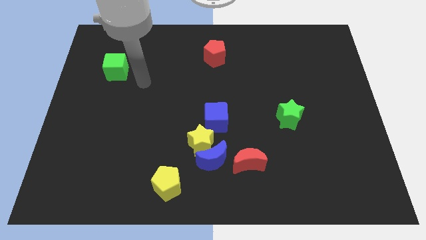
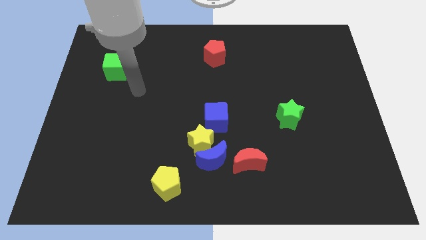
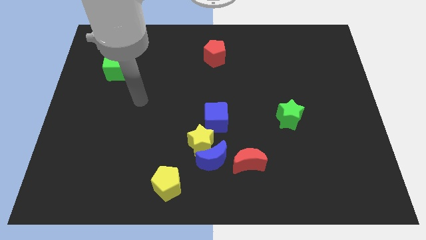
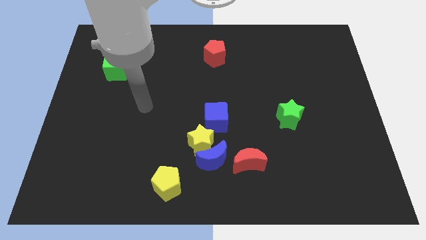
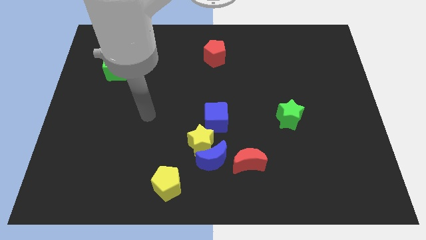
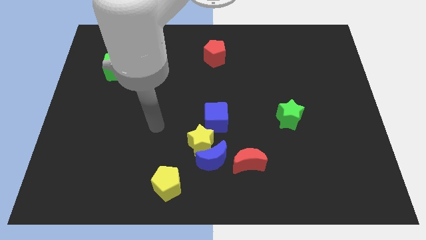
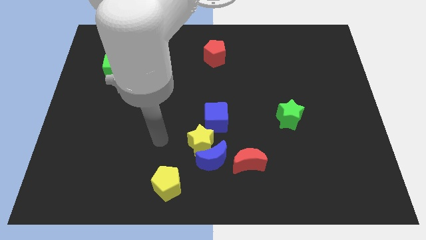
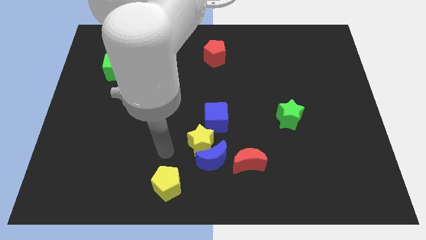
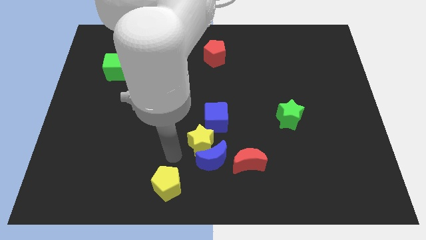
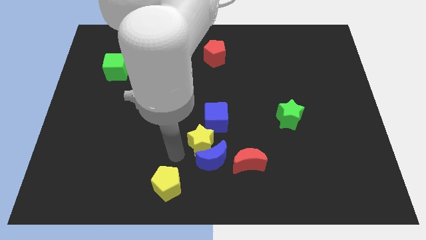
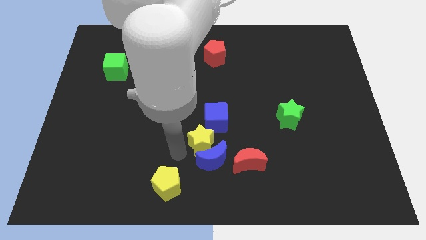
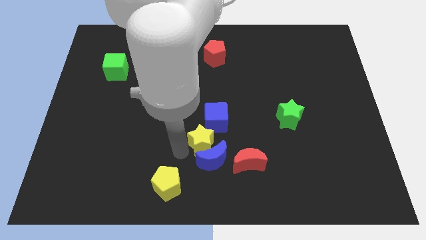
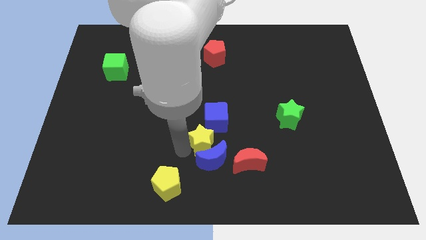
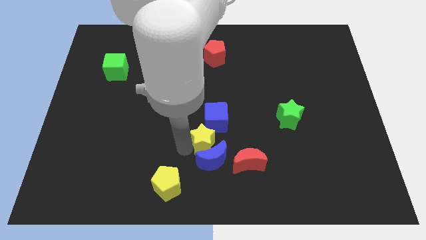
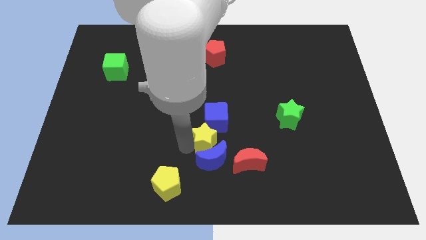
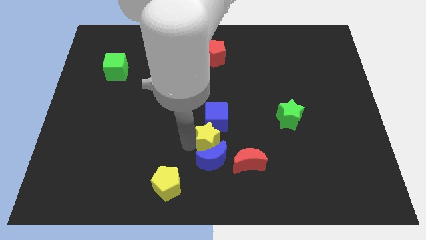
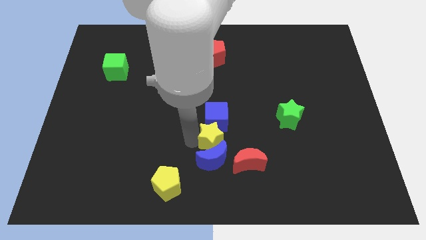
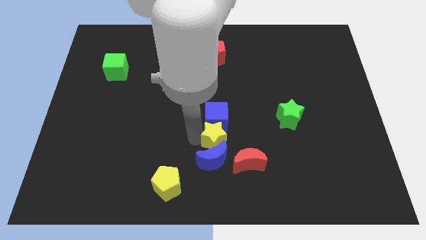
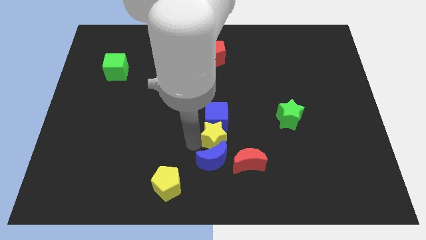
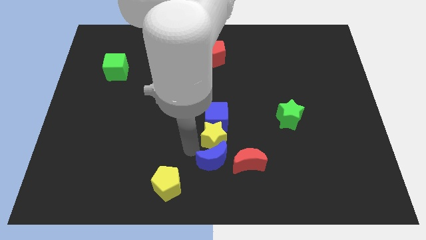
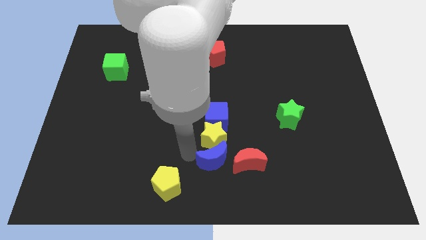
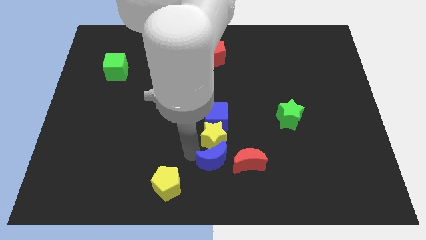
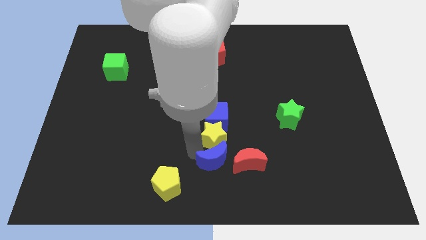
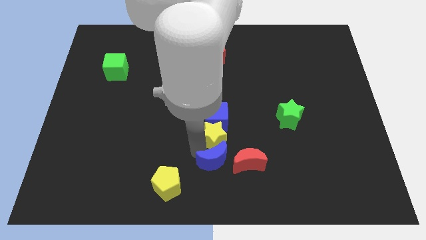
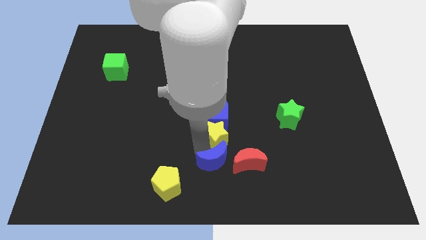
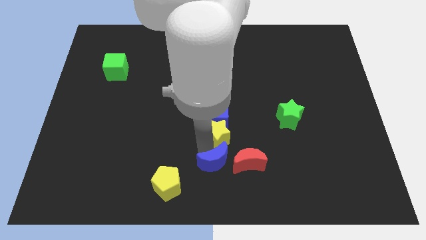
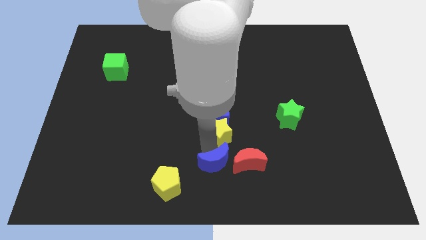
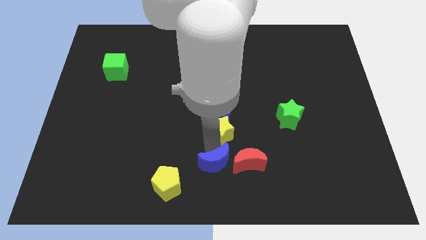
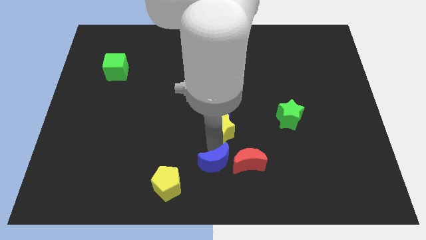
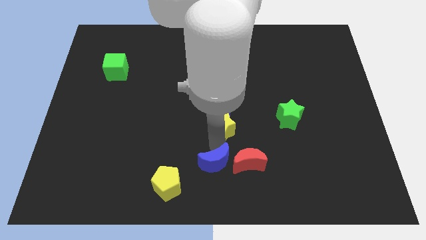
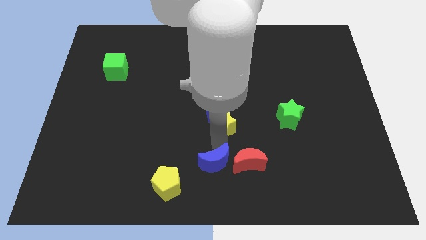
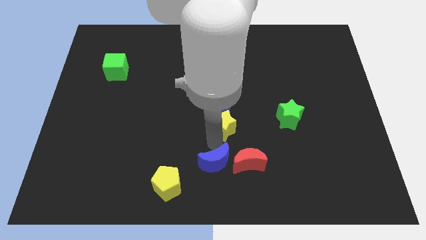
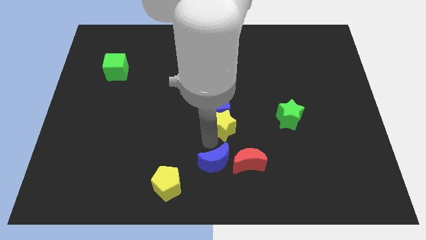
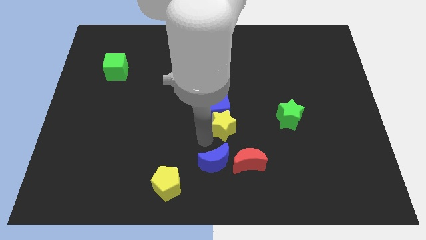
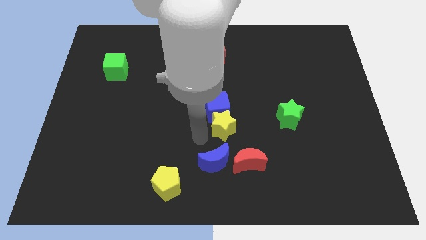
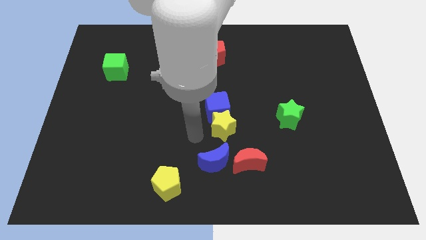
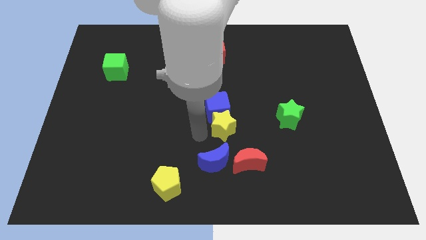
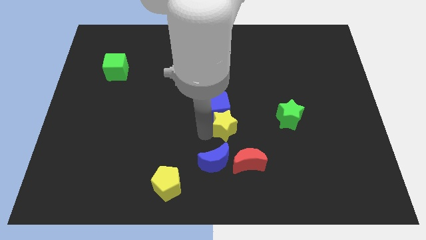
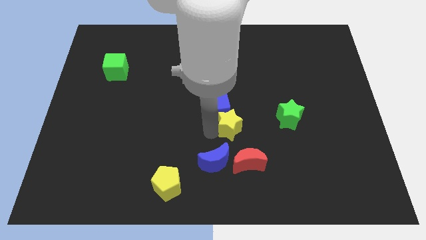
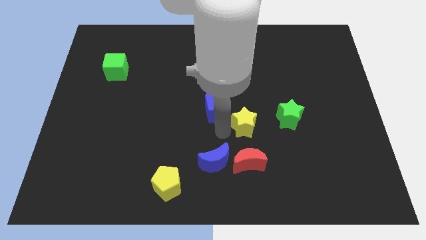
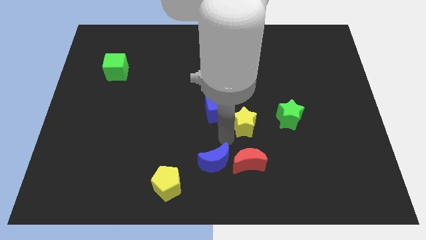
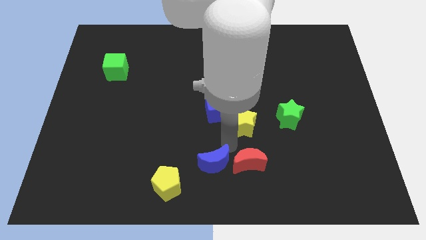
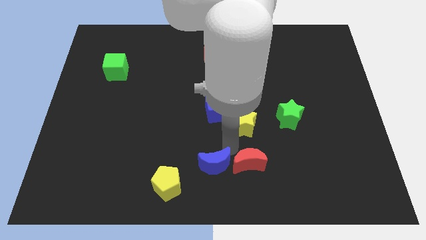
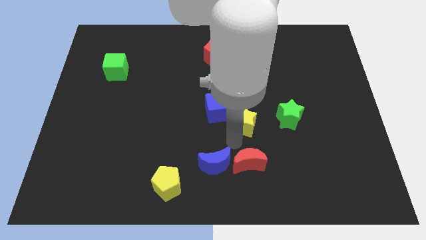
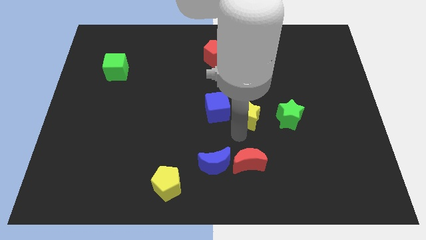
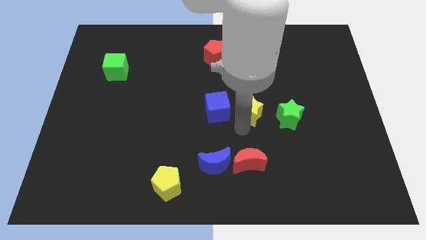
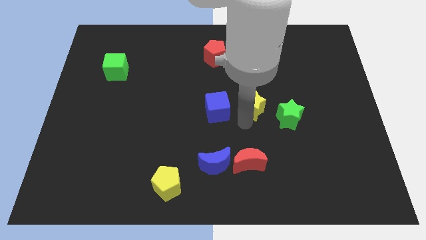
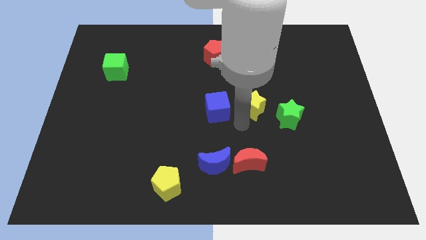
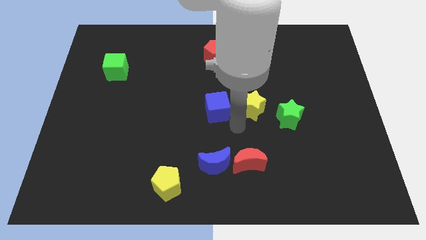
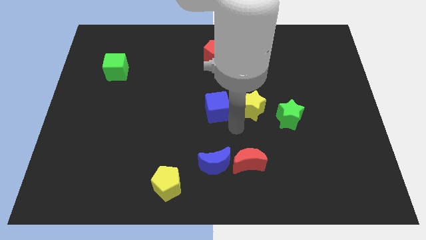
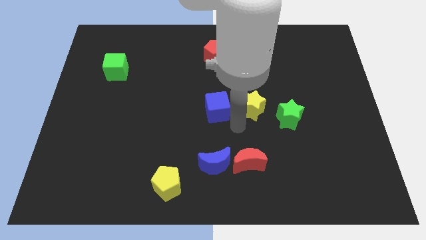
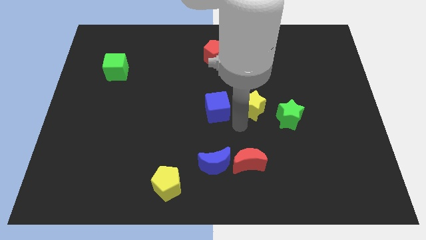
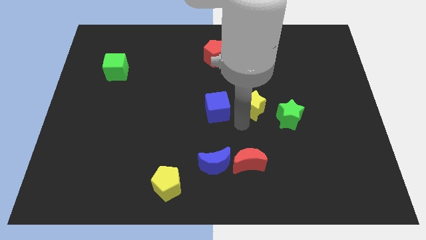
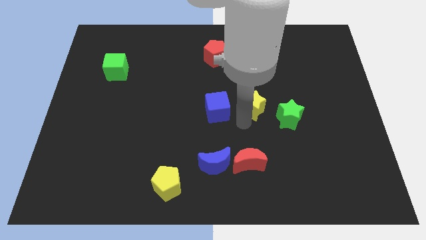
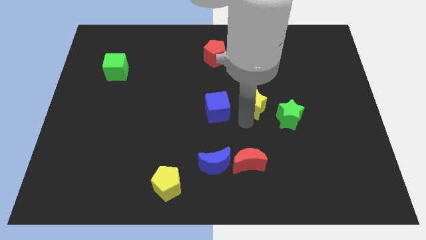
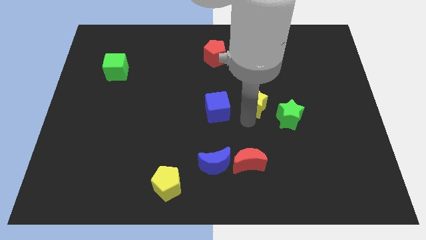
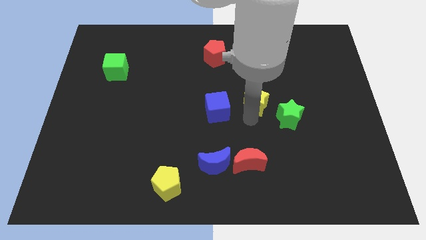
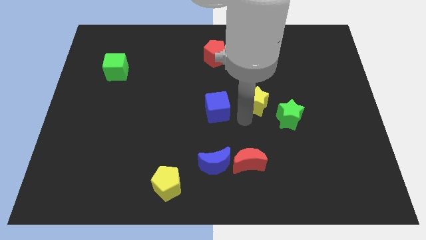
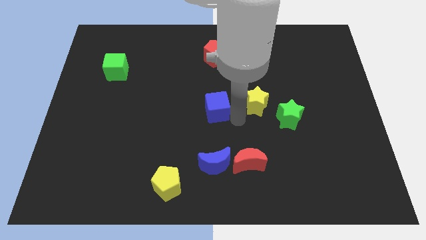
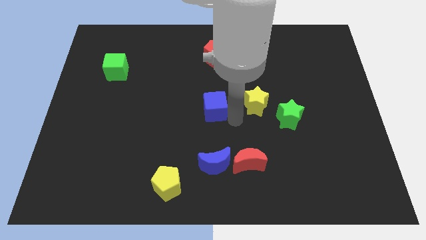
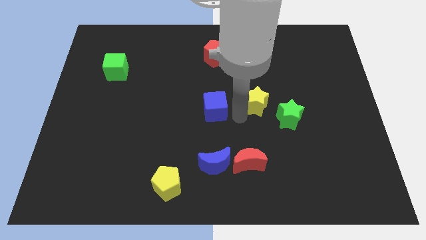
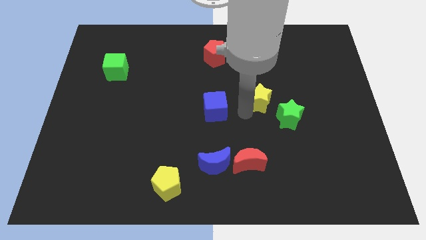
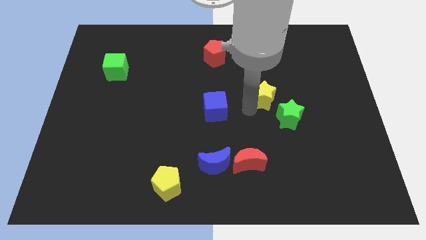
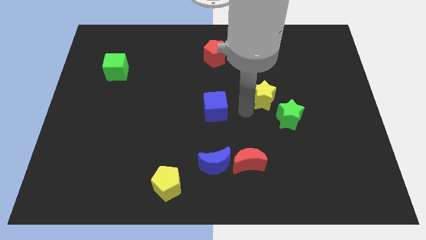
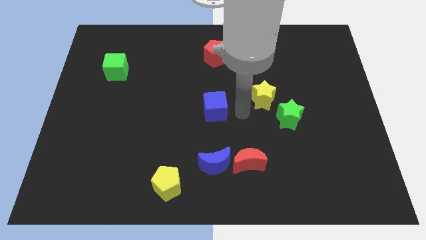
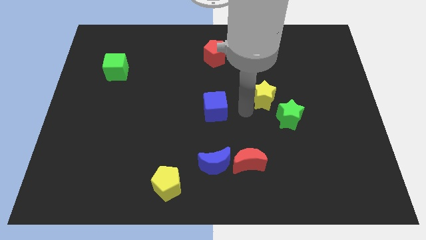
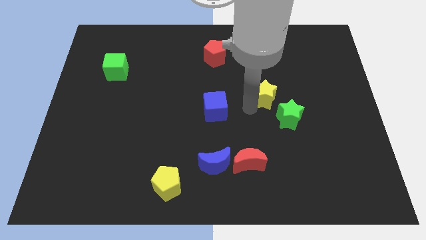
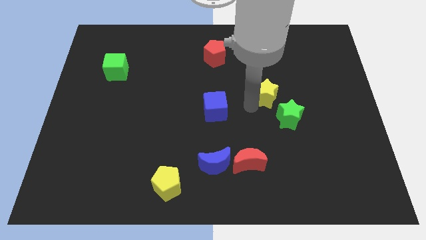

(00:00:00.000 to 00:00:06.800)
slide the yellow star diagonally up and to the right

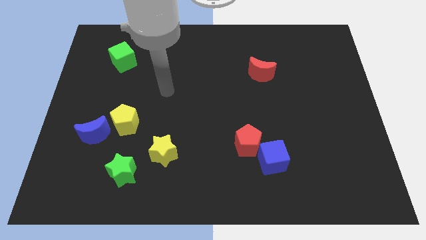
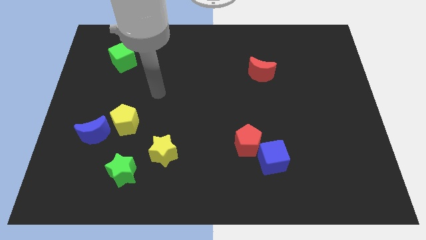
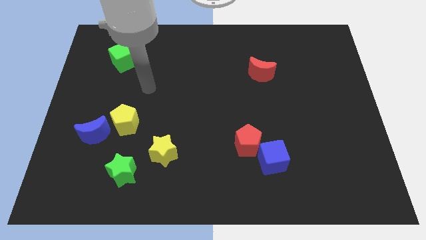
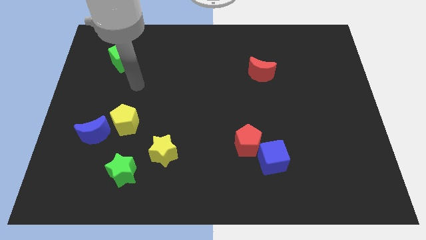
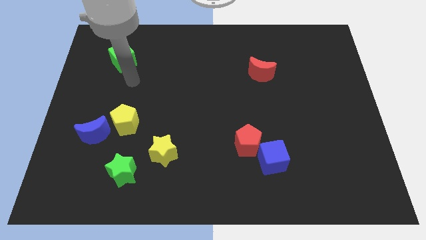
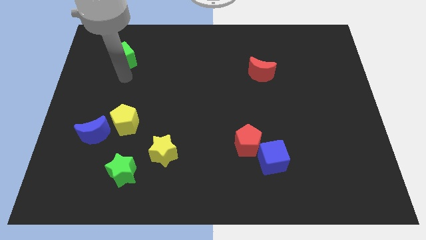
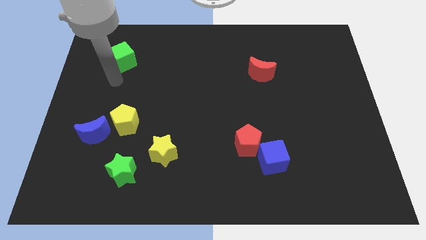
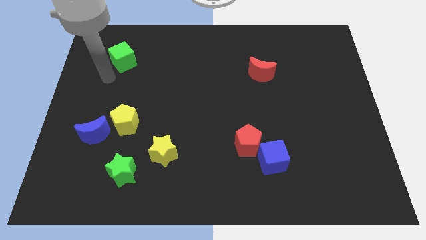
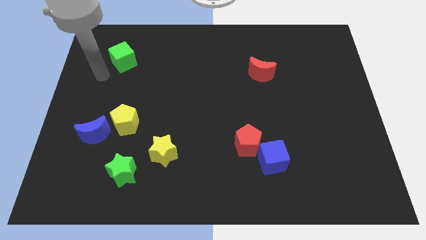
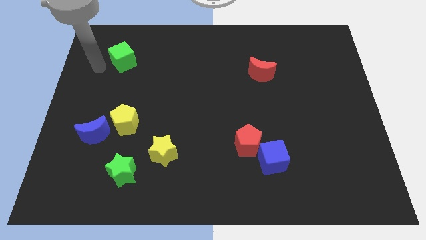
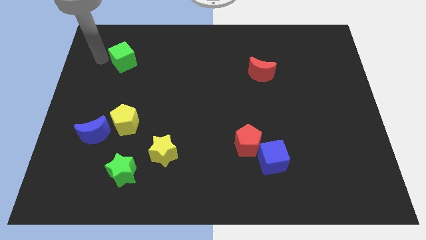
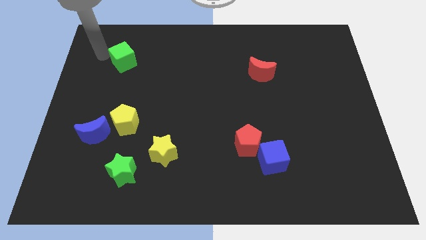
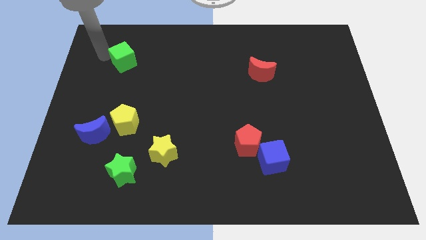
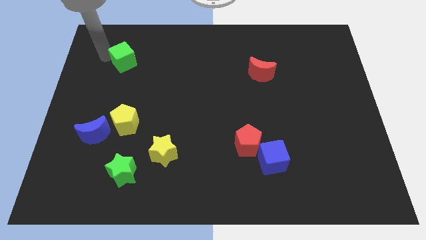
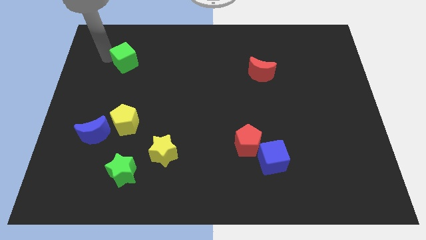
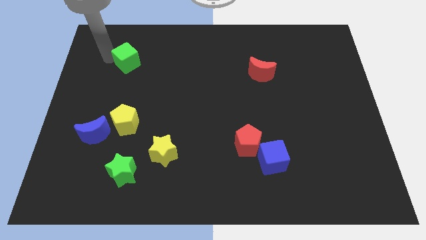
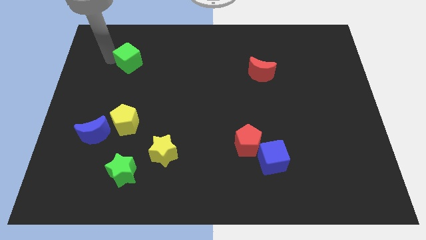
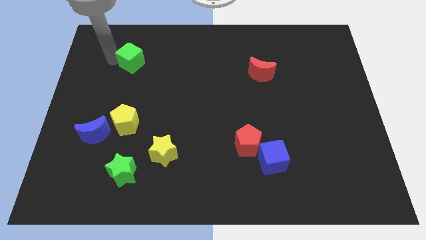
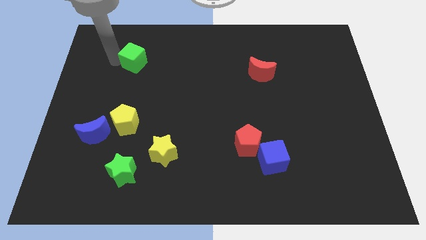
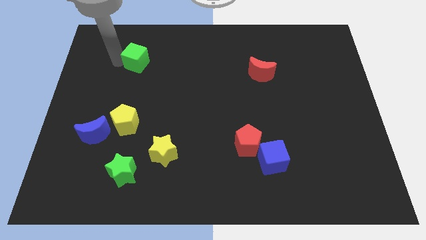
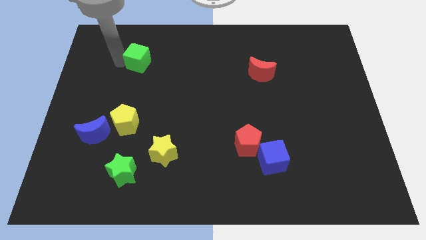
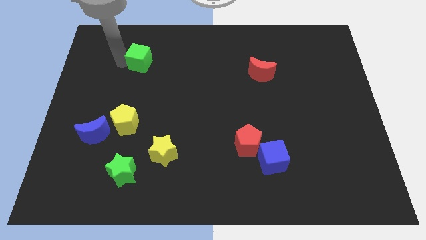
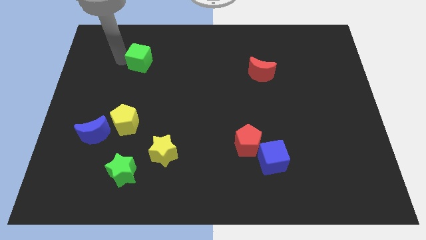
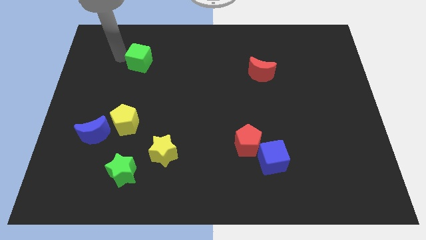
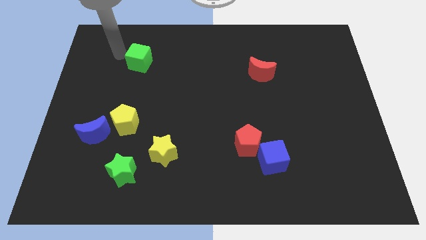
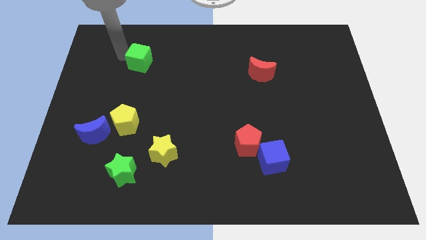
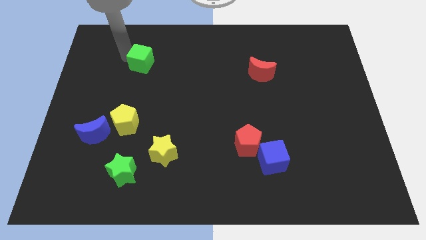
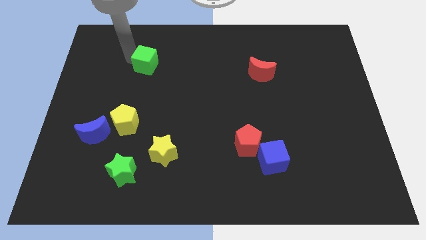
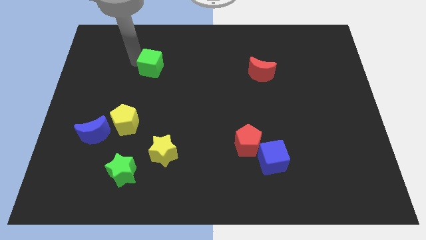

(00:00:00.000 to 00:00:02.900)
slightly push the green cube right
